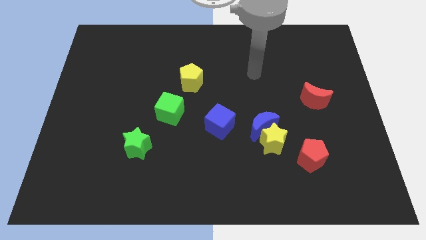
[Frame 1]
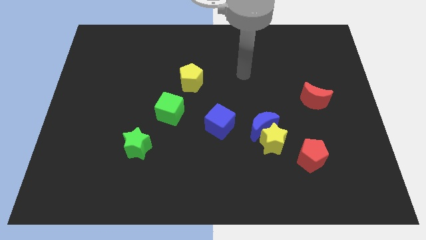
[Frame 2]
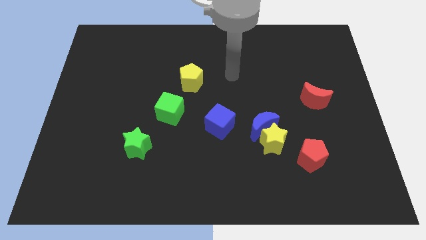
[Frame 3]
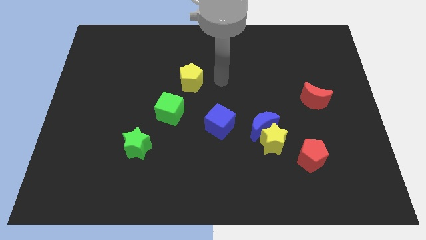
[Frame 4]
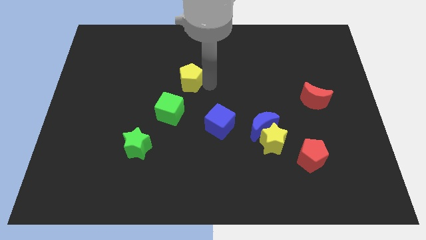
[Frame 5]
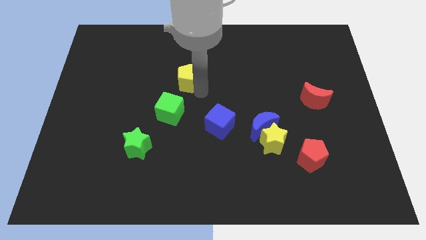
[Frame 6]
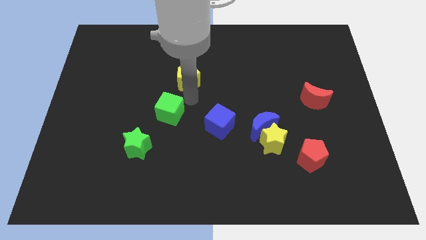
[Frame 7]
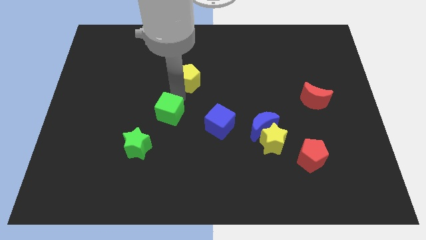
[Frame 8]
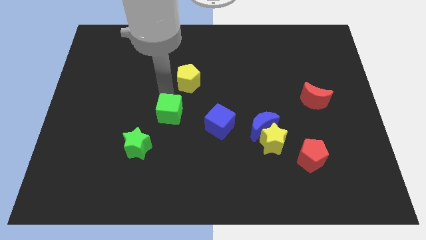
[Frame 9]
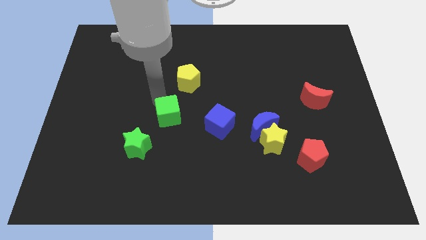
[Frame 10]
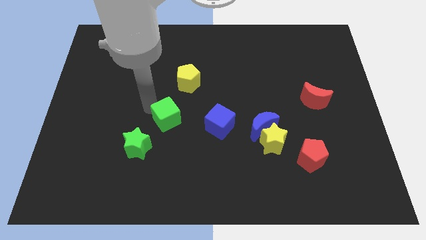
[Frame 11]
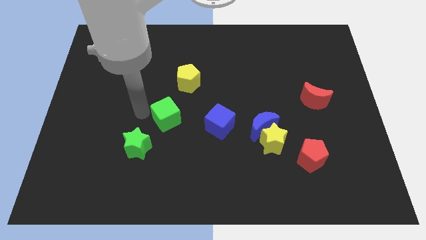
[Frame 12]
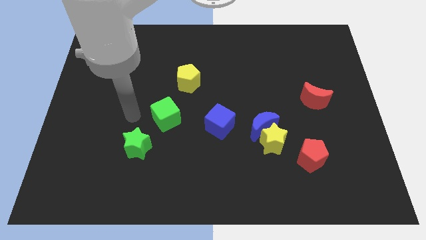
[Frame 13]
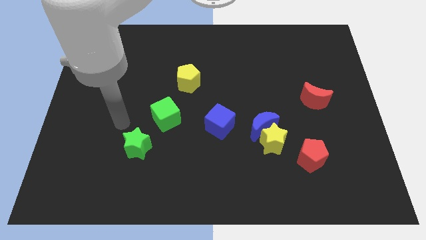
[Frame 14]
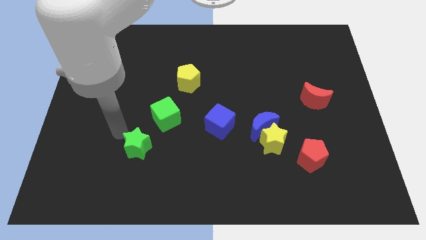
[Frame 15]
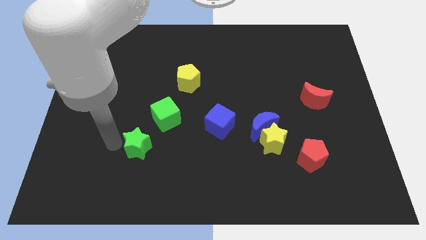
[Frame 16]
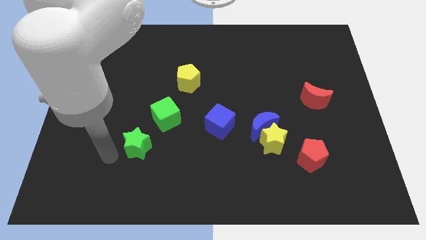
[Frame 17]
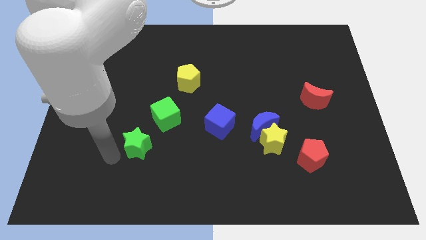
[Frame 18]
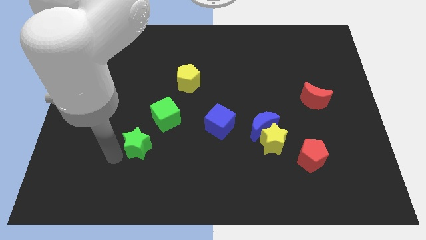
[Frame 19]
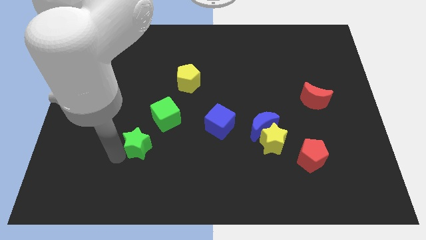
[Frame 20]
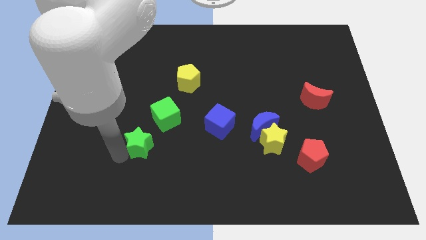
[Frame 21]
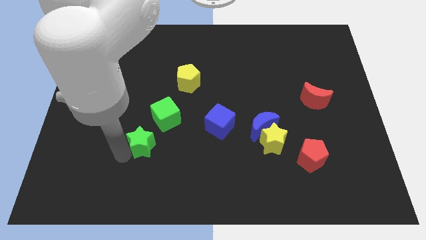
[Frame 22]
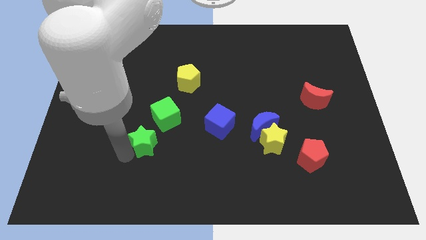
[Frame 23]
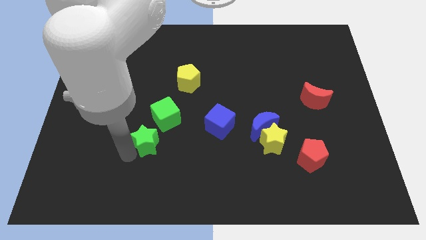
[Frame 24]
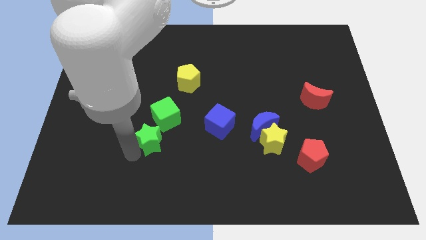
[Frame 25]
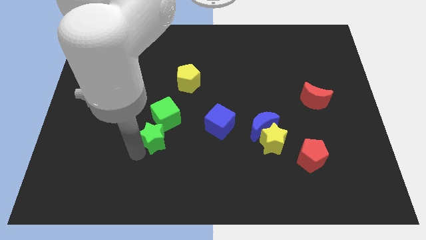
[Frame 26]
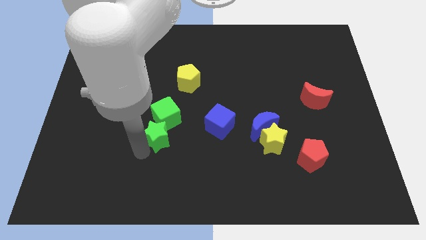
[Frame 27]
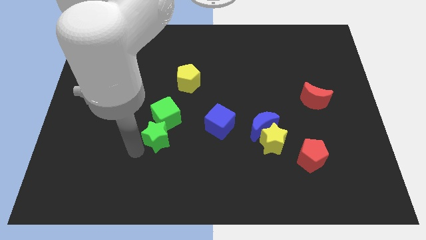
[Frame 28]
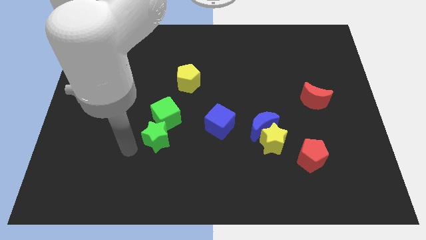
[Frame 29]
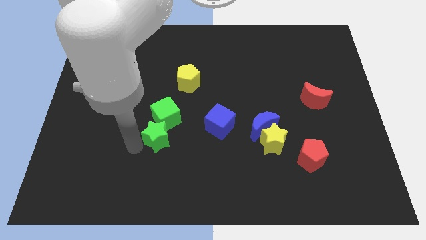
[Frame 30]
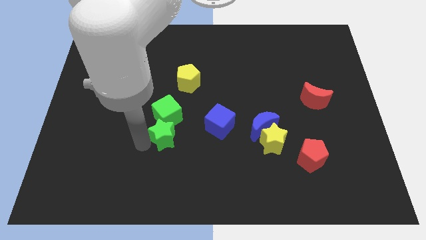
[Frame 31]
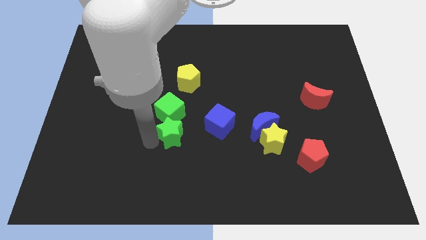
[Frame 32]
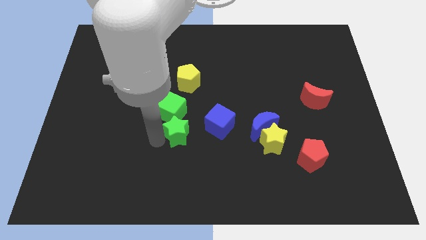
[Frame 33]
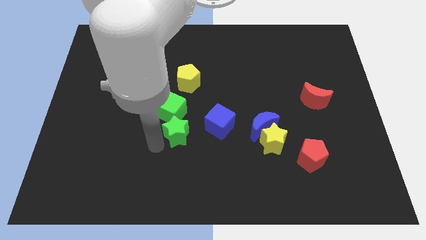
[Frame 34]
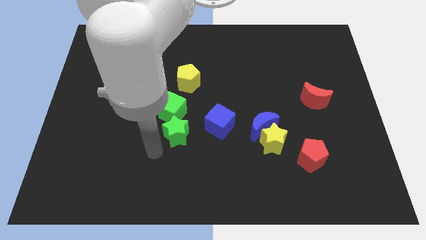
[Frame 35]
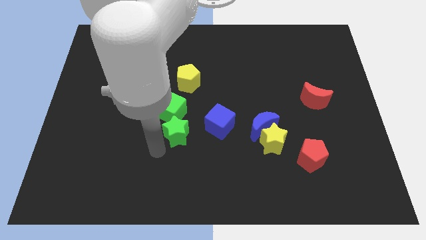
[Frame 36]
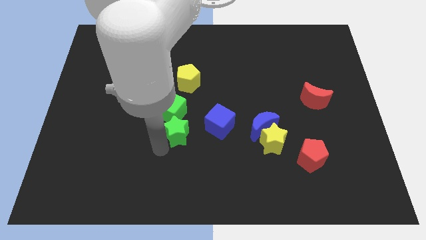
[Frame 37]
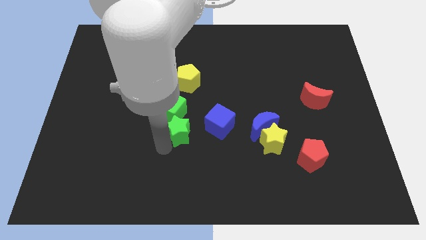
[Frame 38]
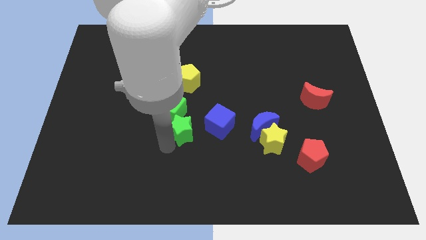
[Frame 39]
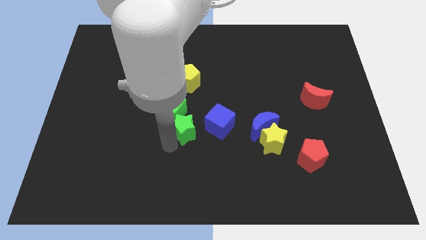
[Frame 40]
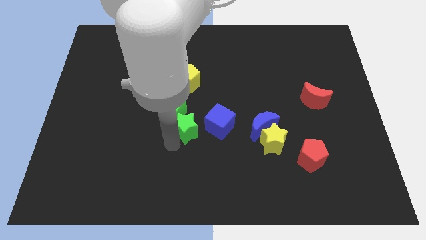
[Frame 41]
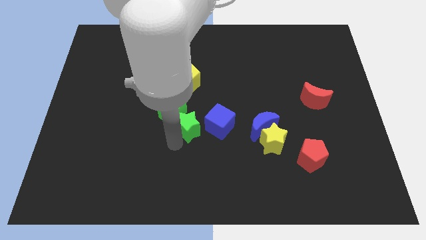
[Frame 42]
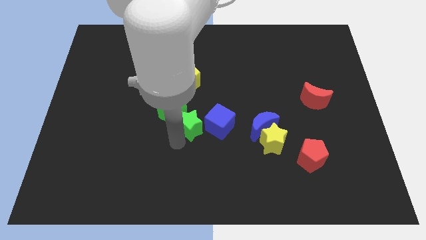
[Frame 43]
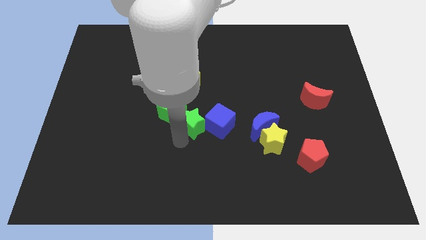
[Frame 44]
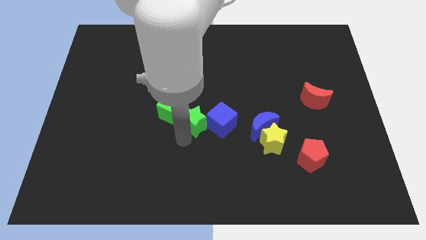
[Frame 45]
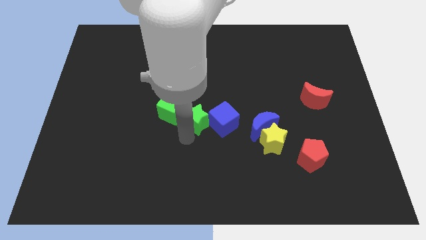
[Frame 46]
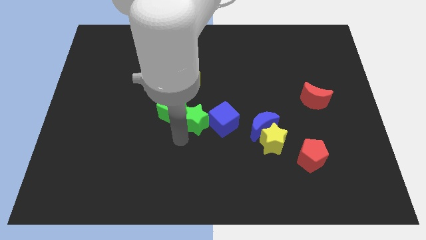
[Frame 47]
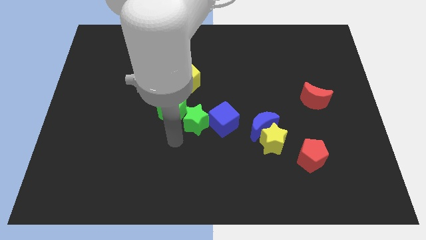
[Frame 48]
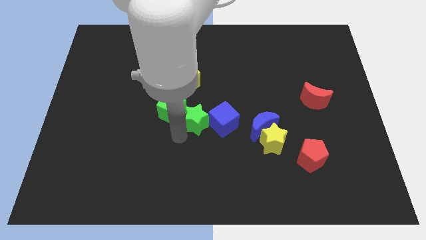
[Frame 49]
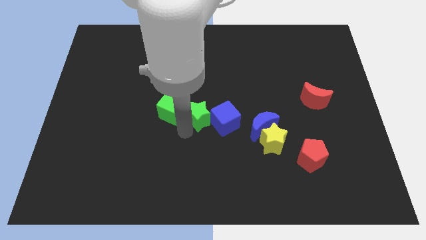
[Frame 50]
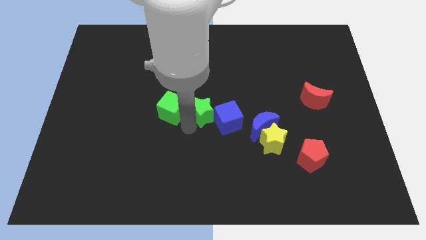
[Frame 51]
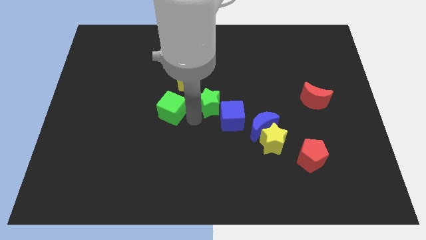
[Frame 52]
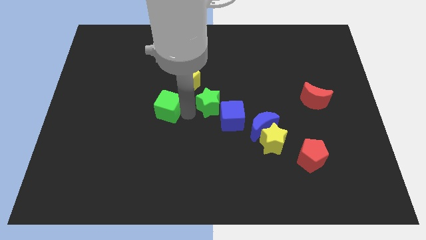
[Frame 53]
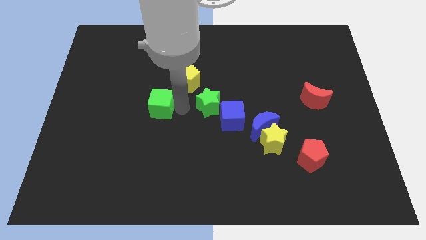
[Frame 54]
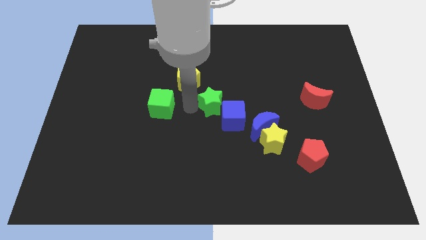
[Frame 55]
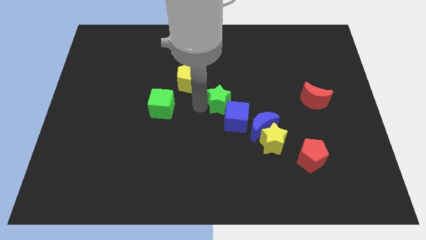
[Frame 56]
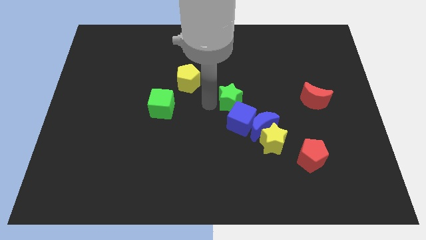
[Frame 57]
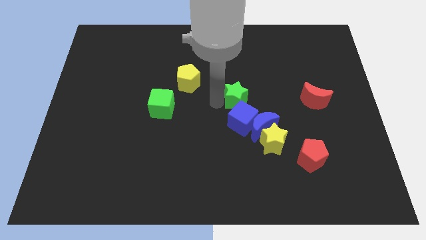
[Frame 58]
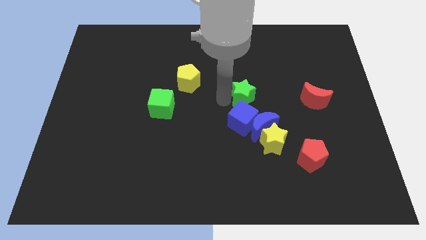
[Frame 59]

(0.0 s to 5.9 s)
slide the green star diagonally up and to the right of the blue cube

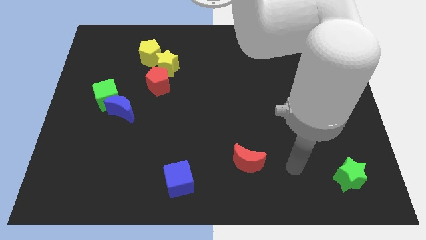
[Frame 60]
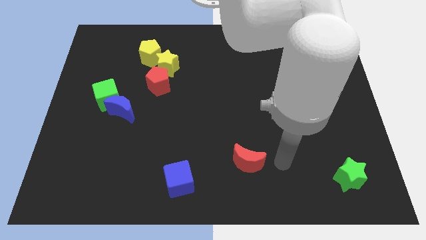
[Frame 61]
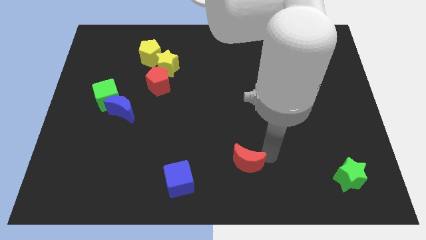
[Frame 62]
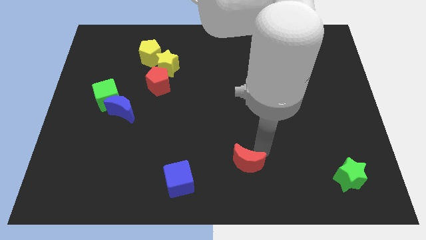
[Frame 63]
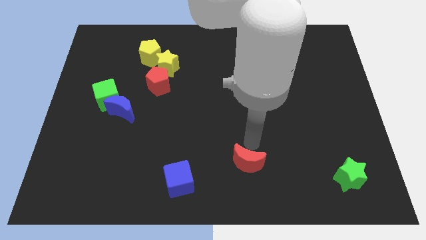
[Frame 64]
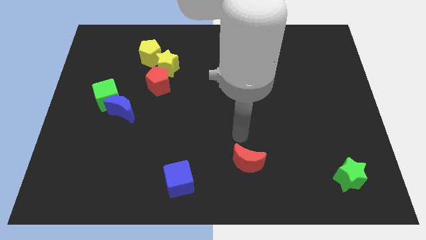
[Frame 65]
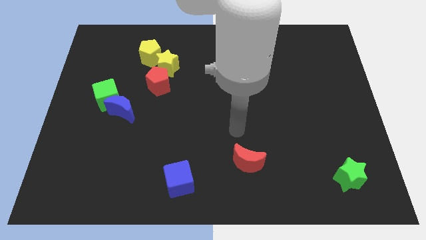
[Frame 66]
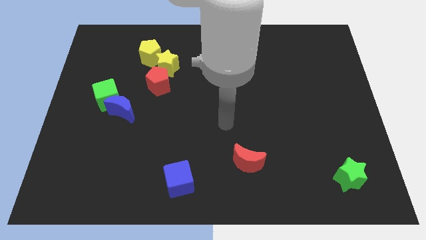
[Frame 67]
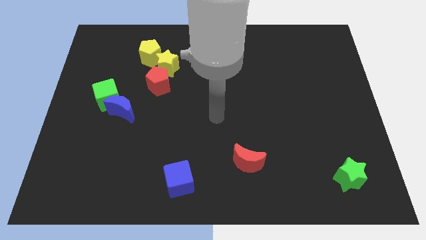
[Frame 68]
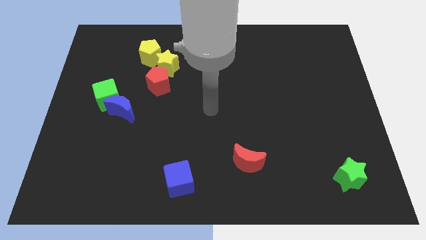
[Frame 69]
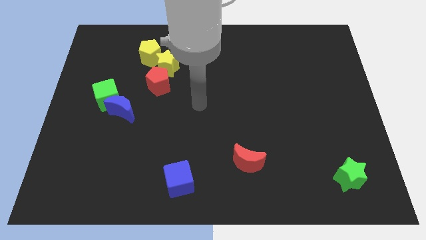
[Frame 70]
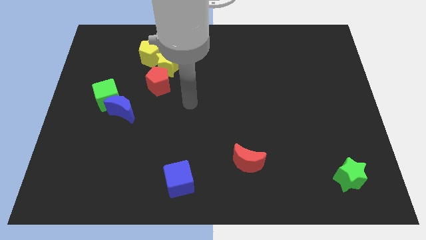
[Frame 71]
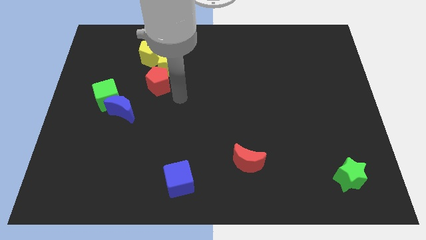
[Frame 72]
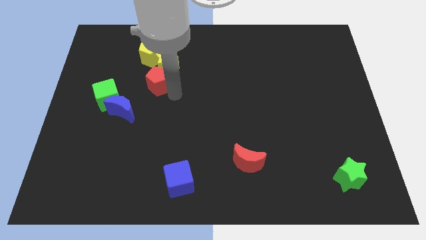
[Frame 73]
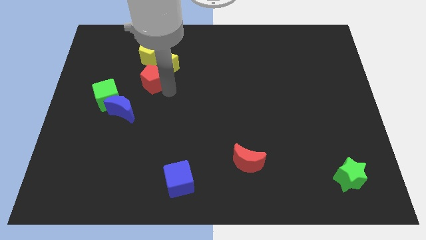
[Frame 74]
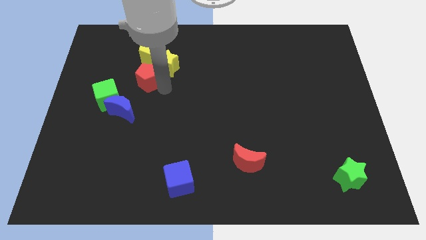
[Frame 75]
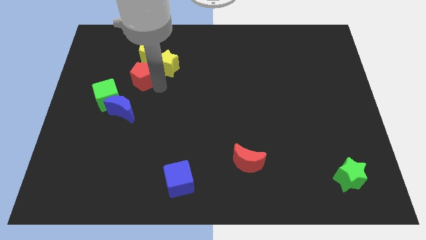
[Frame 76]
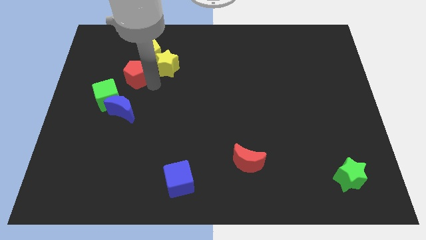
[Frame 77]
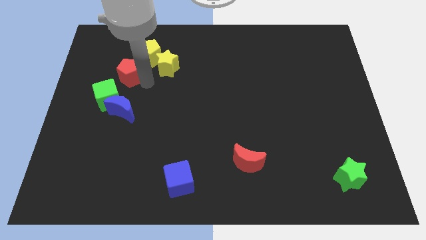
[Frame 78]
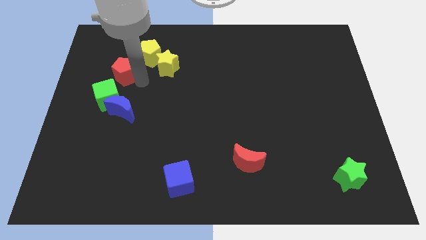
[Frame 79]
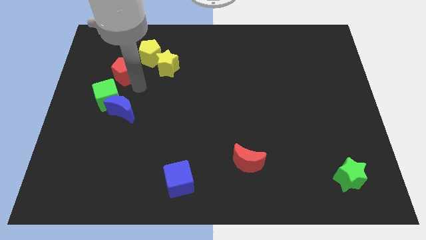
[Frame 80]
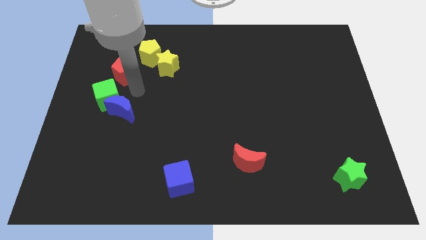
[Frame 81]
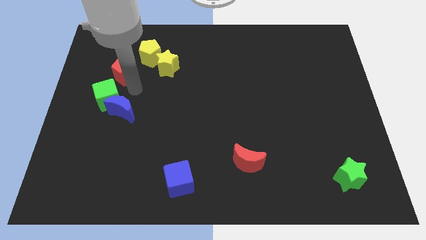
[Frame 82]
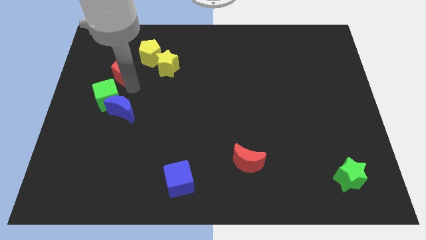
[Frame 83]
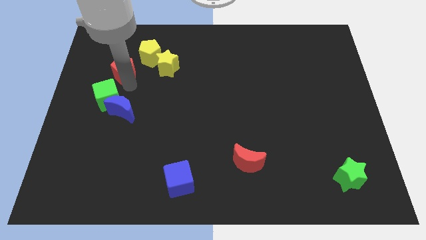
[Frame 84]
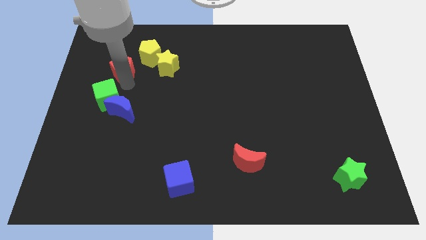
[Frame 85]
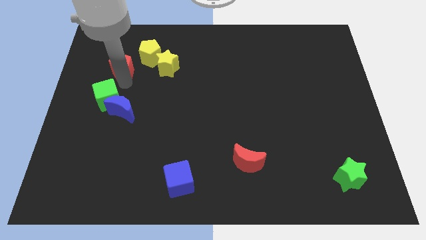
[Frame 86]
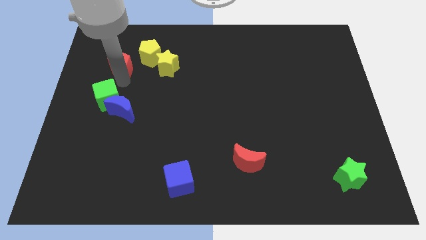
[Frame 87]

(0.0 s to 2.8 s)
move the red pentagon just left of the yellow pentagon
